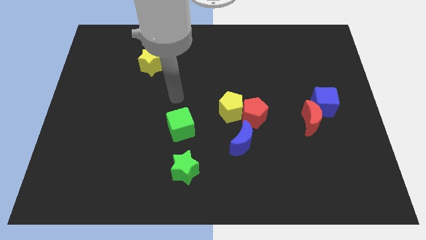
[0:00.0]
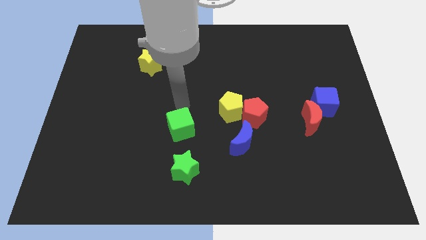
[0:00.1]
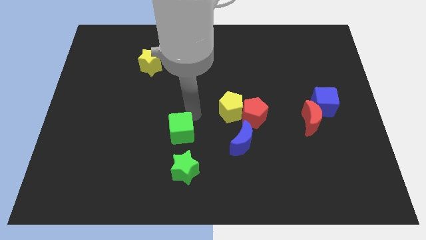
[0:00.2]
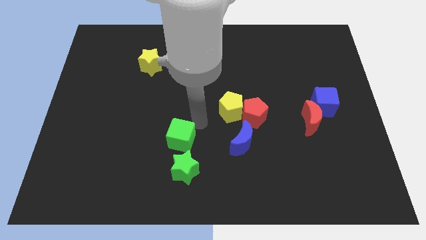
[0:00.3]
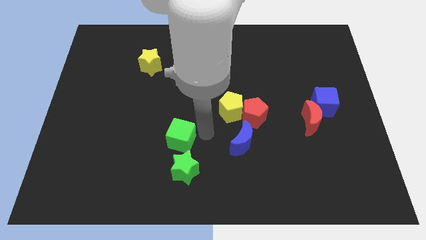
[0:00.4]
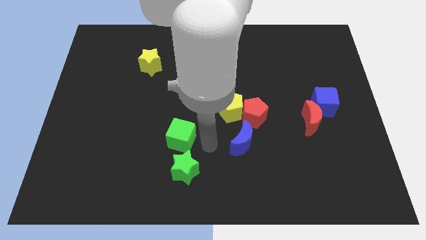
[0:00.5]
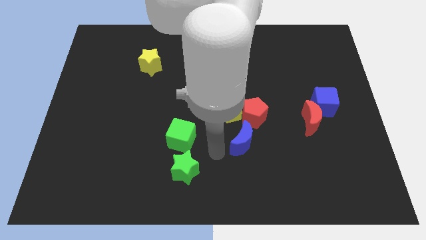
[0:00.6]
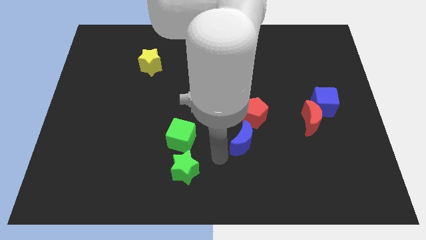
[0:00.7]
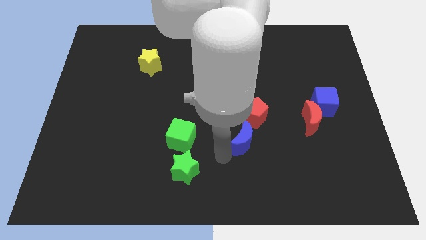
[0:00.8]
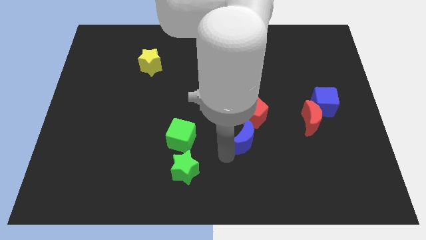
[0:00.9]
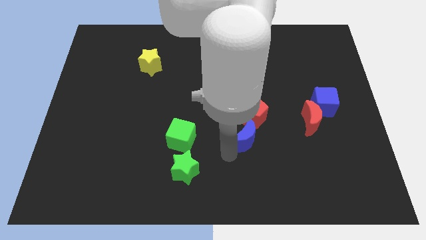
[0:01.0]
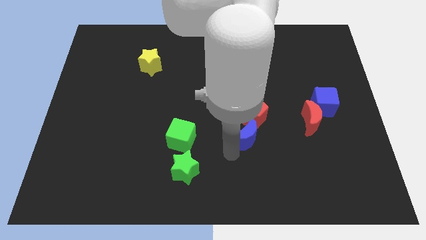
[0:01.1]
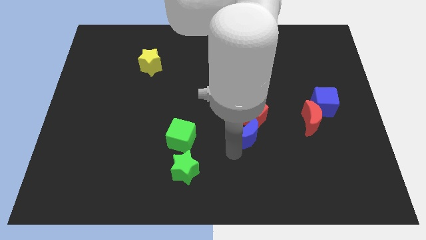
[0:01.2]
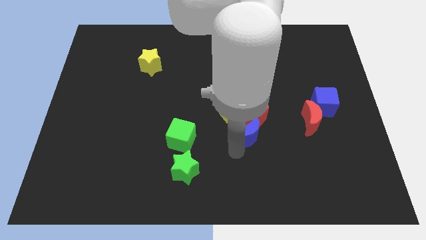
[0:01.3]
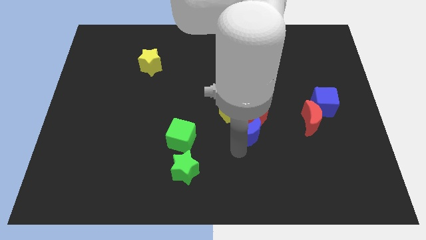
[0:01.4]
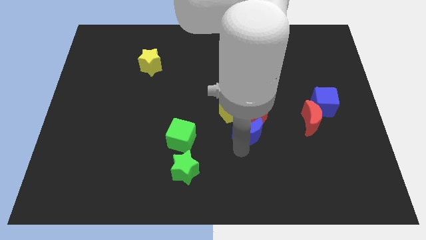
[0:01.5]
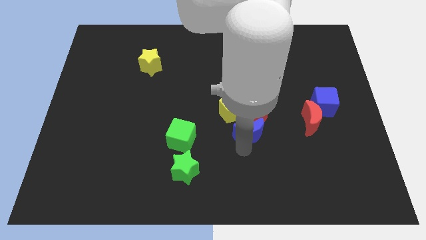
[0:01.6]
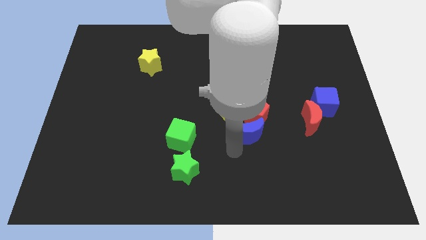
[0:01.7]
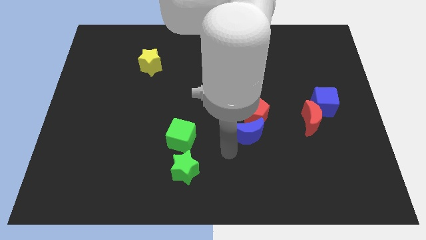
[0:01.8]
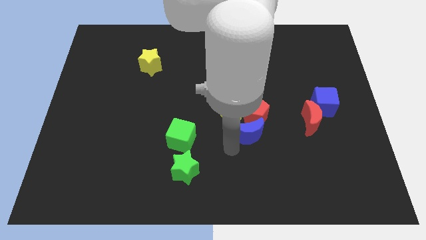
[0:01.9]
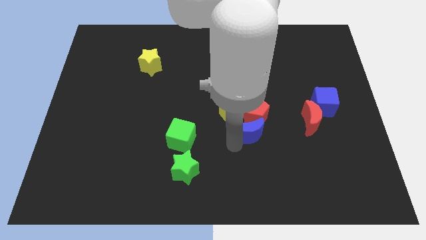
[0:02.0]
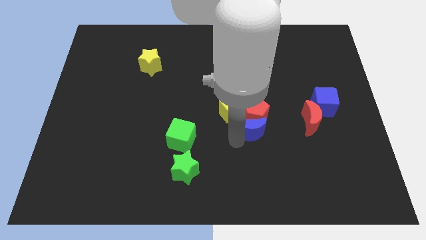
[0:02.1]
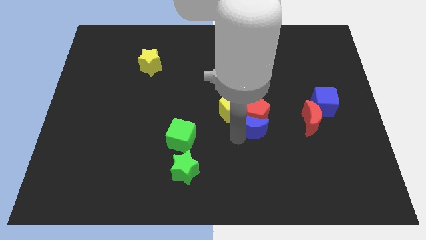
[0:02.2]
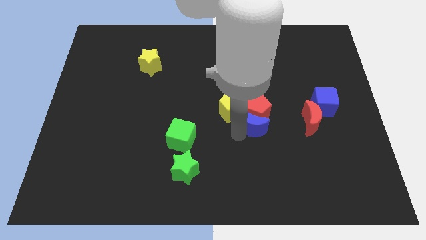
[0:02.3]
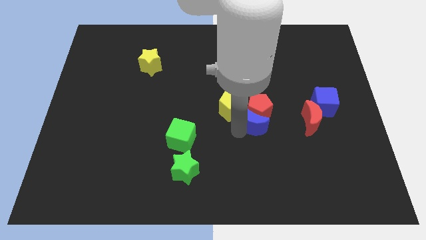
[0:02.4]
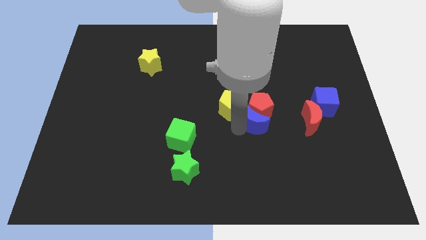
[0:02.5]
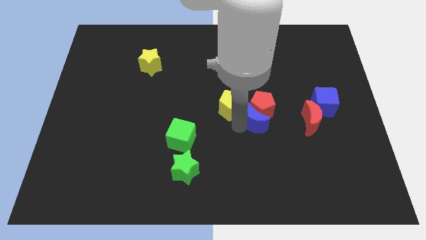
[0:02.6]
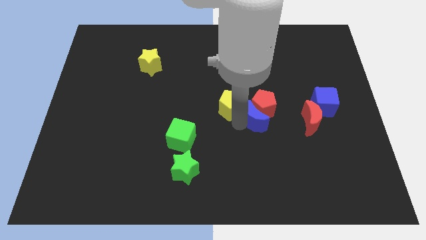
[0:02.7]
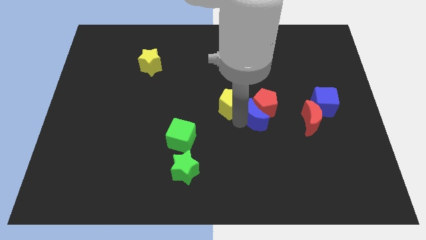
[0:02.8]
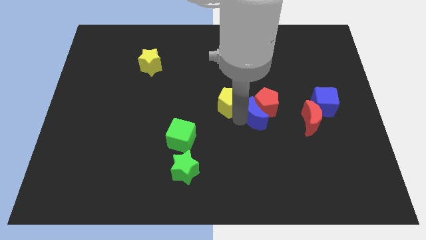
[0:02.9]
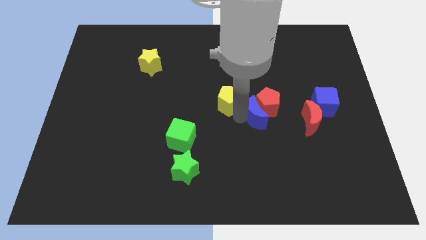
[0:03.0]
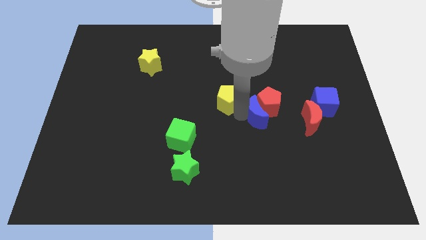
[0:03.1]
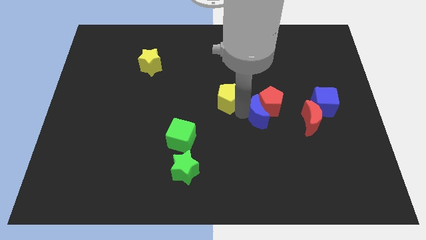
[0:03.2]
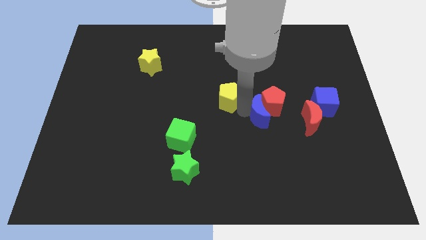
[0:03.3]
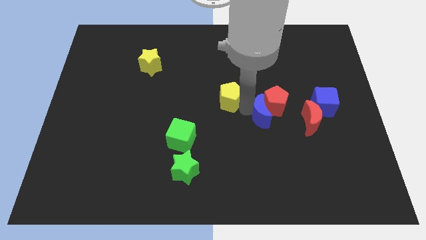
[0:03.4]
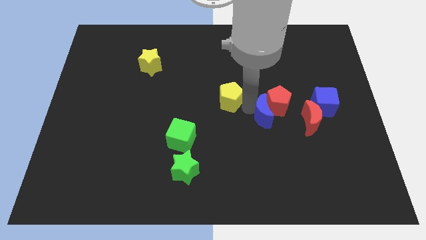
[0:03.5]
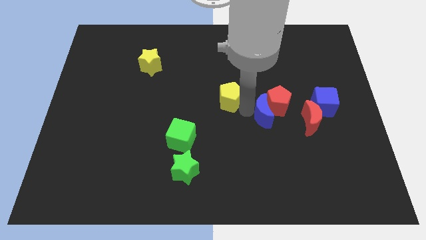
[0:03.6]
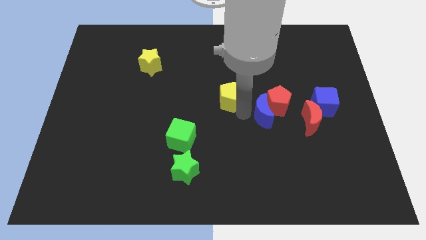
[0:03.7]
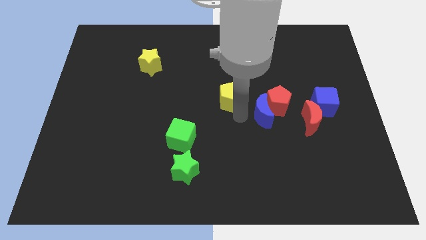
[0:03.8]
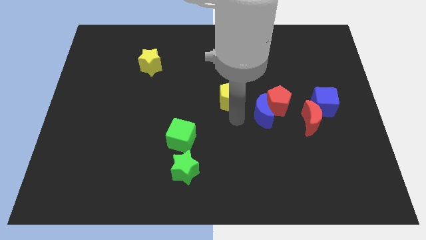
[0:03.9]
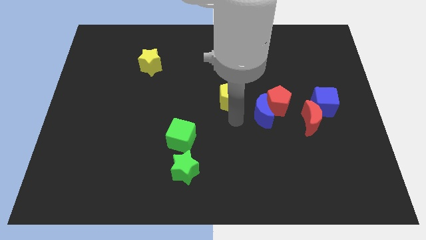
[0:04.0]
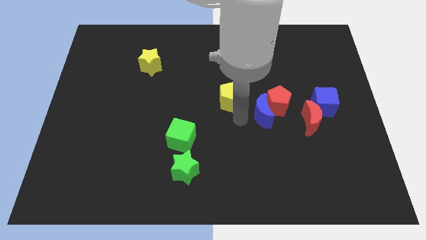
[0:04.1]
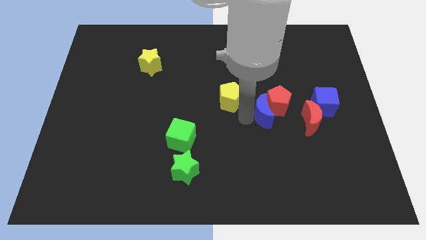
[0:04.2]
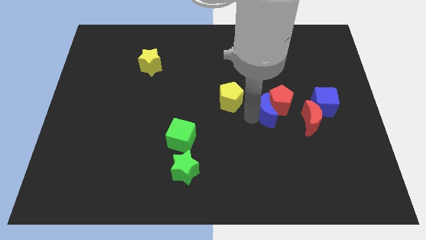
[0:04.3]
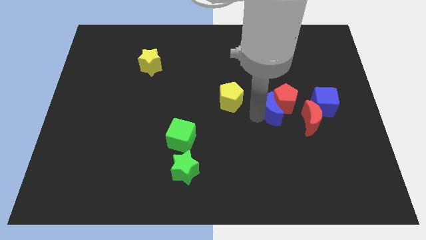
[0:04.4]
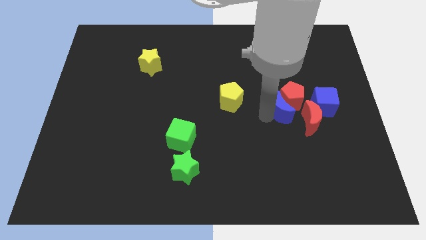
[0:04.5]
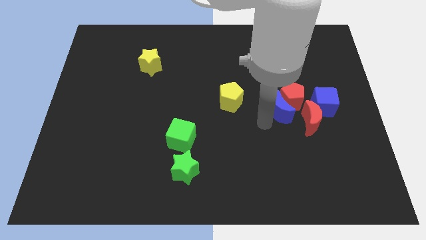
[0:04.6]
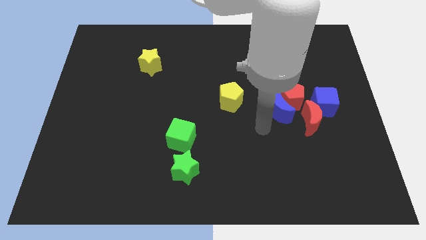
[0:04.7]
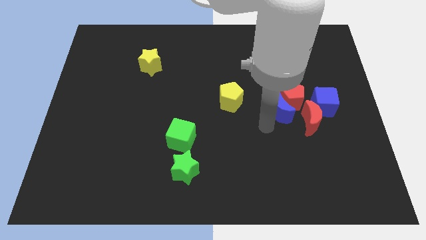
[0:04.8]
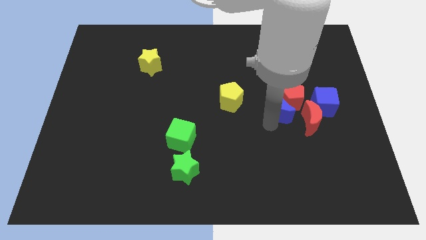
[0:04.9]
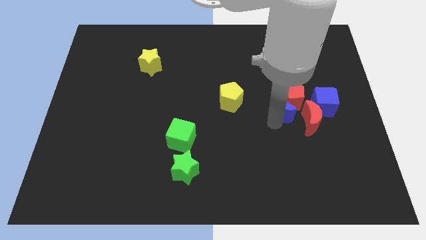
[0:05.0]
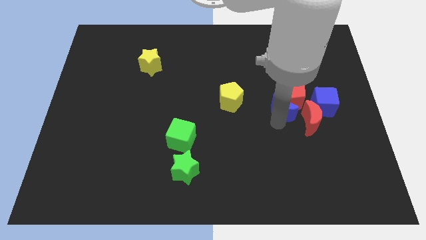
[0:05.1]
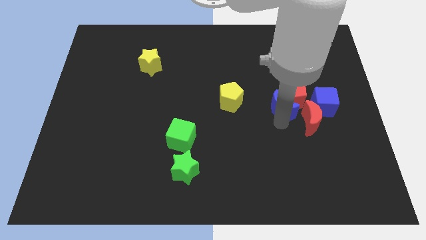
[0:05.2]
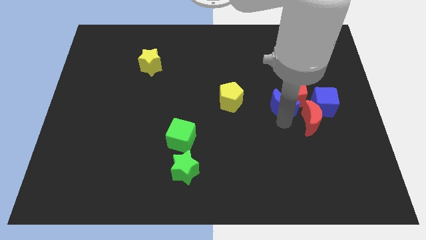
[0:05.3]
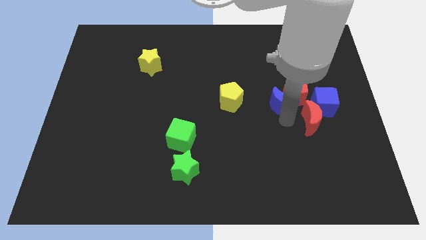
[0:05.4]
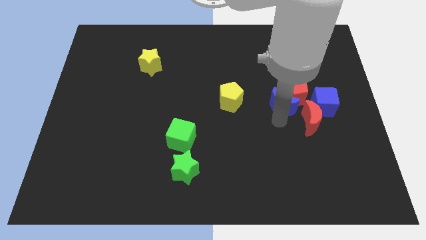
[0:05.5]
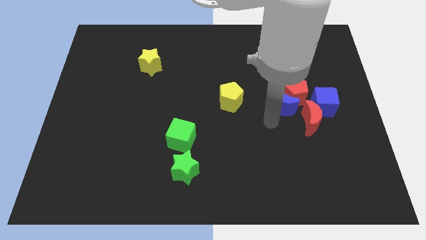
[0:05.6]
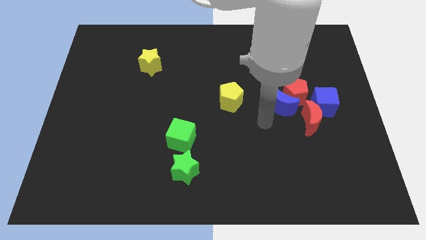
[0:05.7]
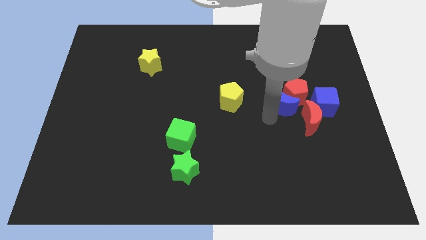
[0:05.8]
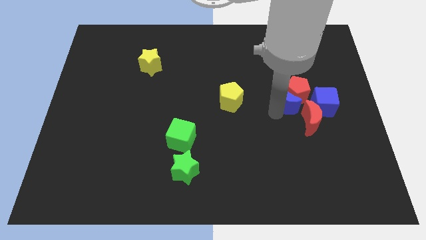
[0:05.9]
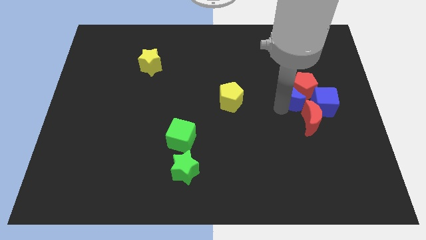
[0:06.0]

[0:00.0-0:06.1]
push the blue moon to the top of the red moon

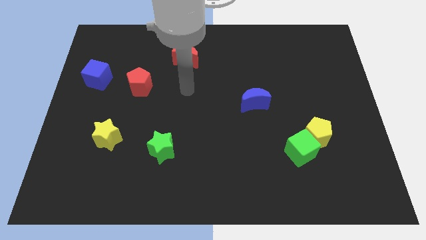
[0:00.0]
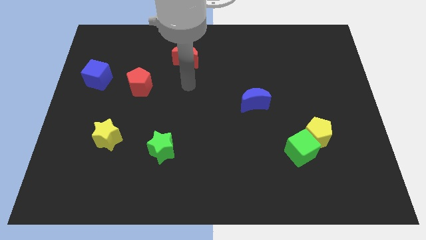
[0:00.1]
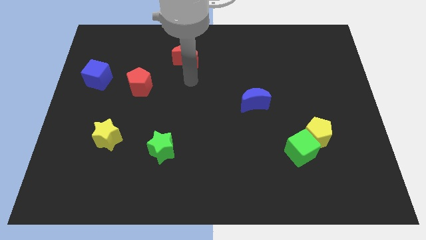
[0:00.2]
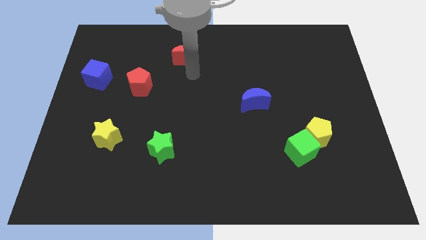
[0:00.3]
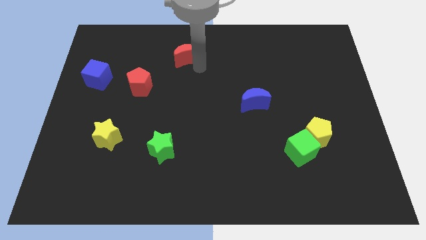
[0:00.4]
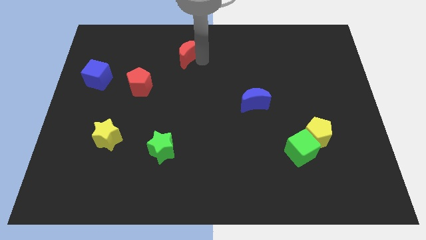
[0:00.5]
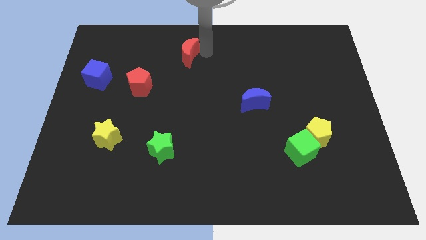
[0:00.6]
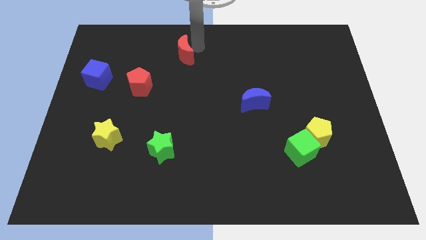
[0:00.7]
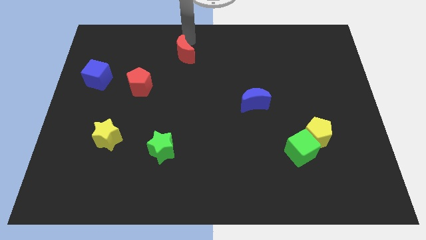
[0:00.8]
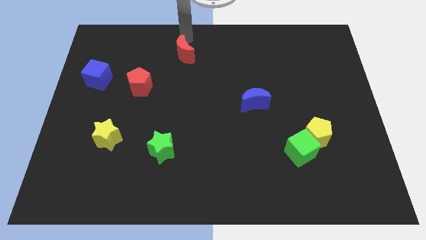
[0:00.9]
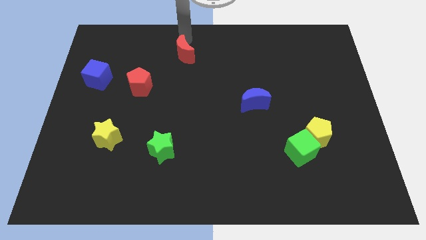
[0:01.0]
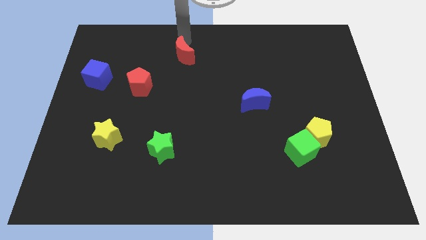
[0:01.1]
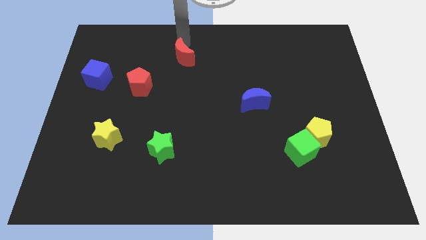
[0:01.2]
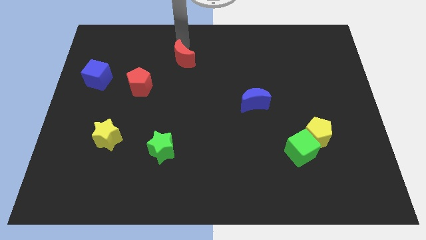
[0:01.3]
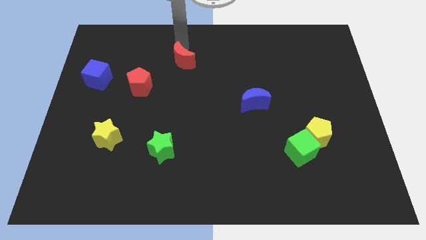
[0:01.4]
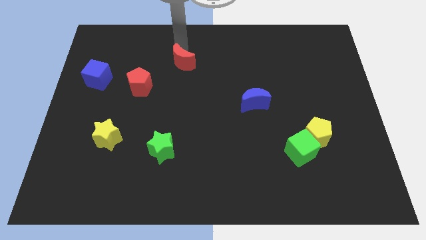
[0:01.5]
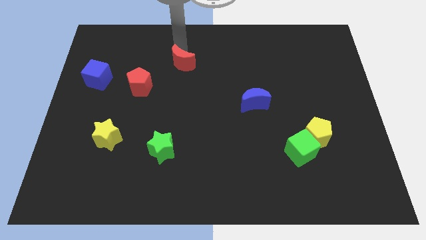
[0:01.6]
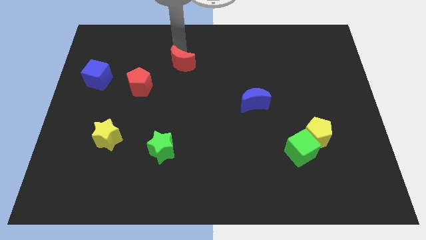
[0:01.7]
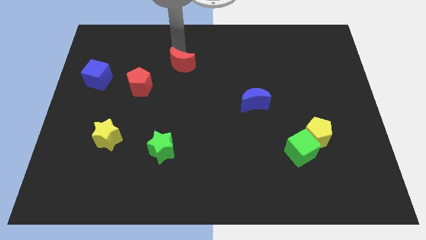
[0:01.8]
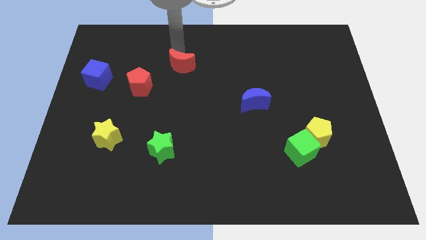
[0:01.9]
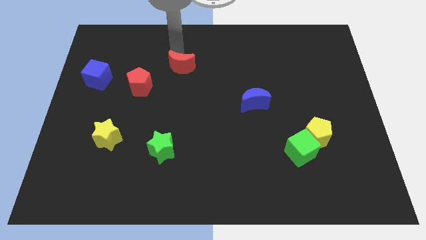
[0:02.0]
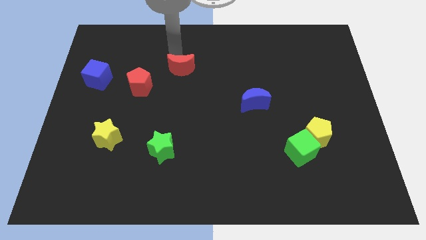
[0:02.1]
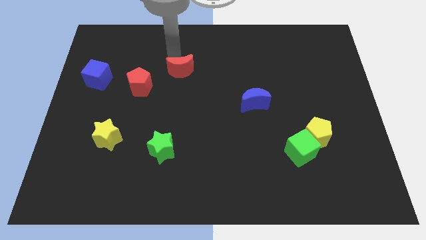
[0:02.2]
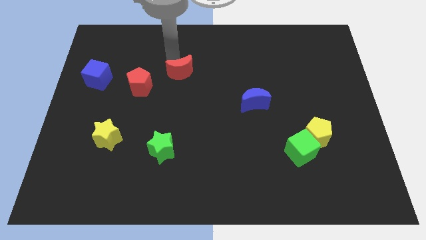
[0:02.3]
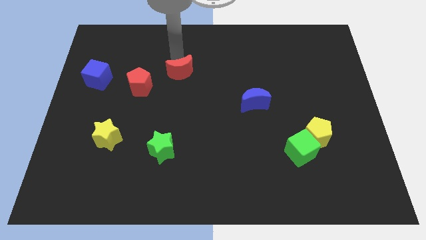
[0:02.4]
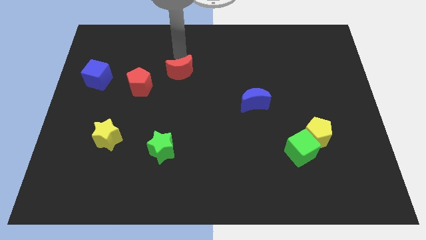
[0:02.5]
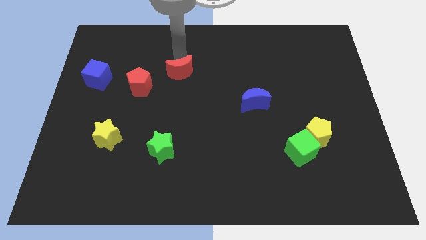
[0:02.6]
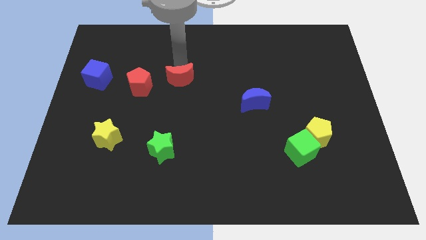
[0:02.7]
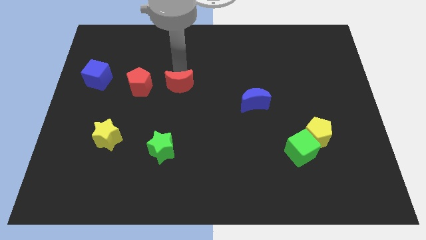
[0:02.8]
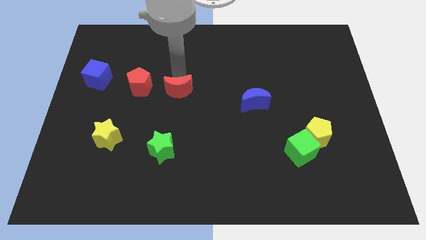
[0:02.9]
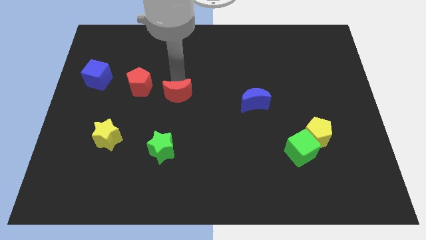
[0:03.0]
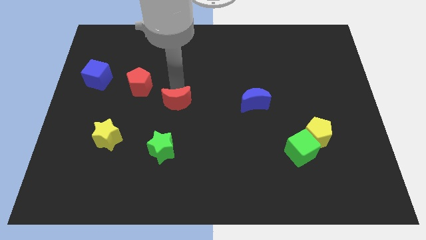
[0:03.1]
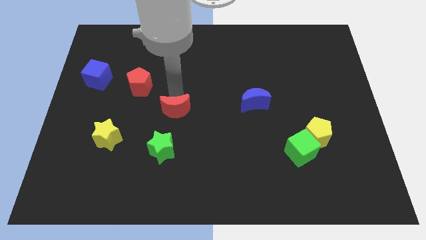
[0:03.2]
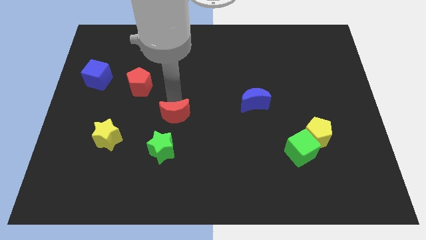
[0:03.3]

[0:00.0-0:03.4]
move the red moon to the top right of the green star
